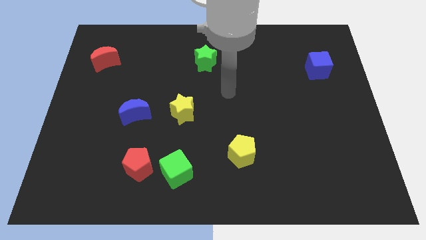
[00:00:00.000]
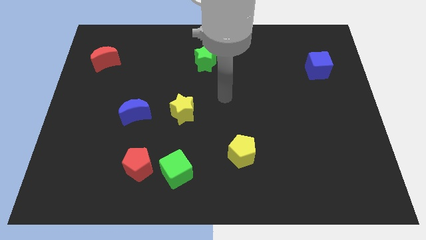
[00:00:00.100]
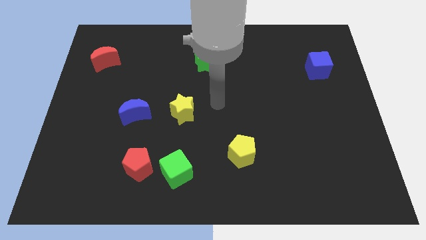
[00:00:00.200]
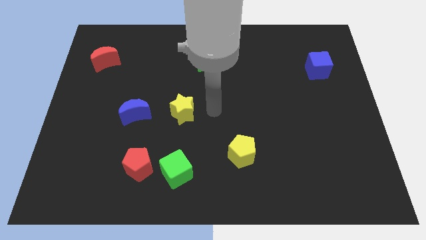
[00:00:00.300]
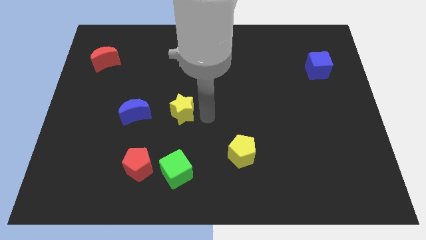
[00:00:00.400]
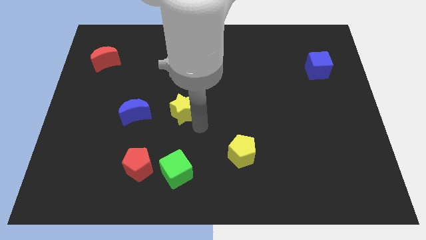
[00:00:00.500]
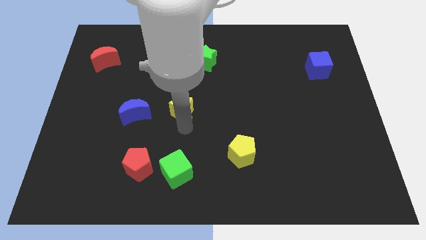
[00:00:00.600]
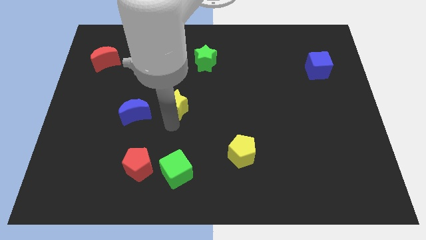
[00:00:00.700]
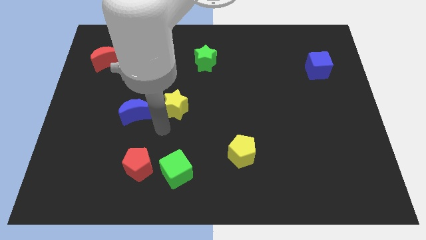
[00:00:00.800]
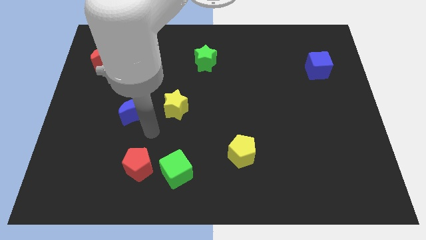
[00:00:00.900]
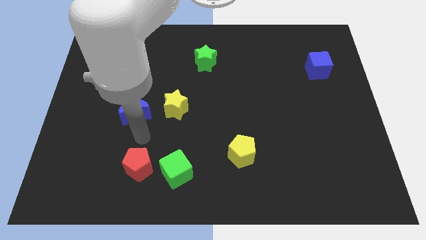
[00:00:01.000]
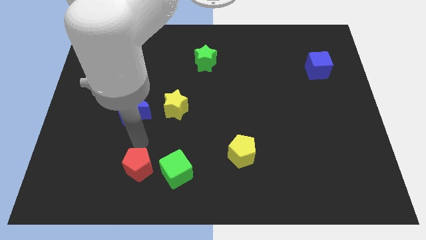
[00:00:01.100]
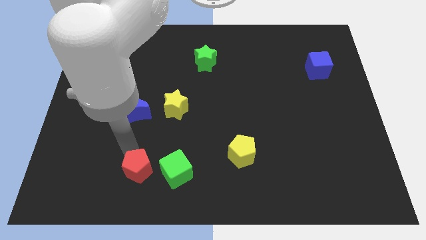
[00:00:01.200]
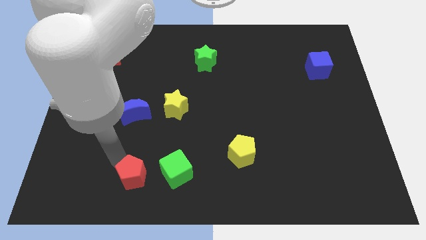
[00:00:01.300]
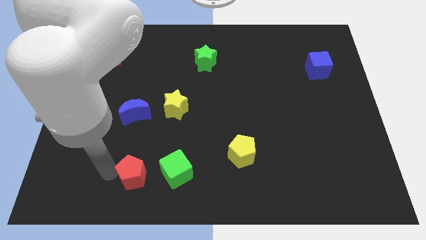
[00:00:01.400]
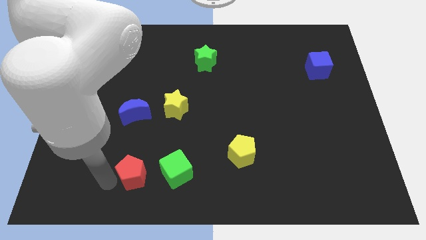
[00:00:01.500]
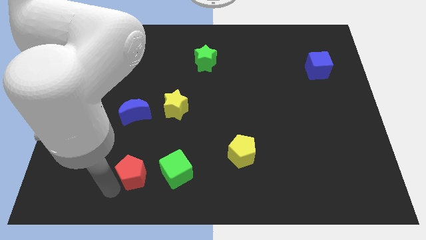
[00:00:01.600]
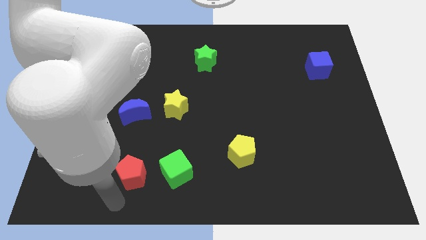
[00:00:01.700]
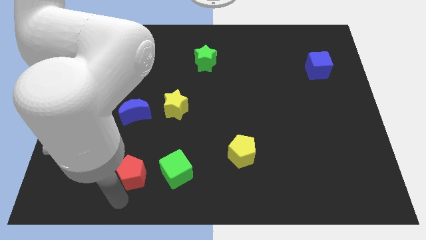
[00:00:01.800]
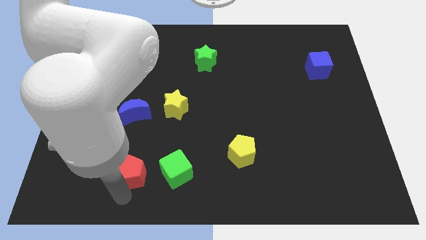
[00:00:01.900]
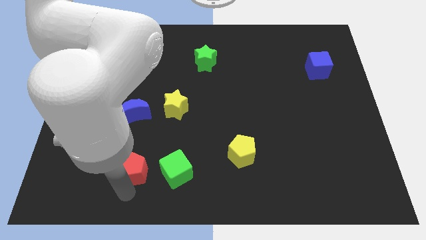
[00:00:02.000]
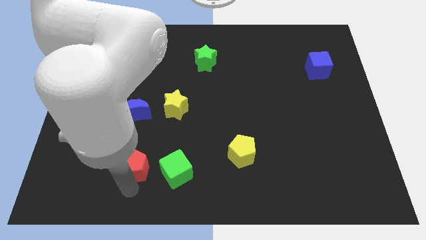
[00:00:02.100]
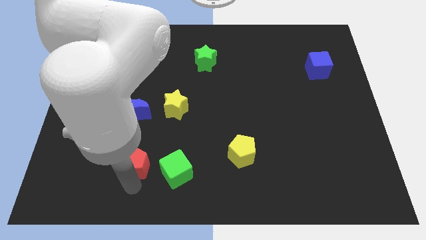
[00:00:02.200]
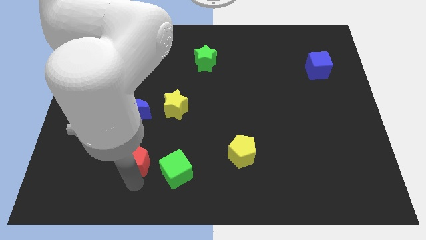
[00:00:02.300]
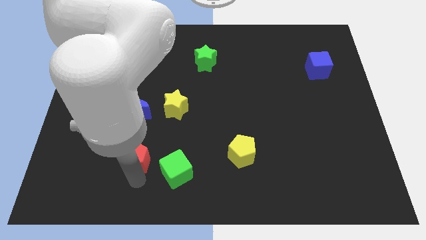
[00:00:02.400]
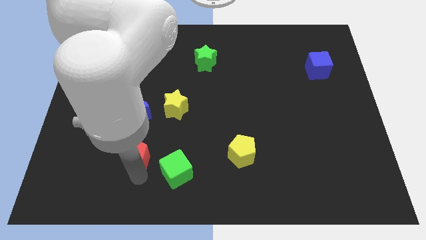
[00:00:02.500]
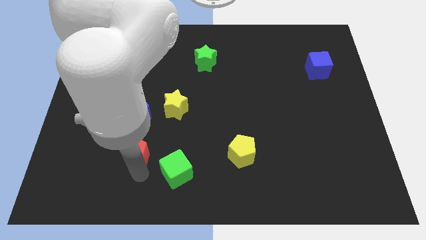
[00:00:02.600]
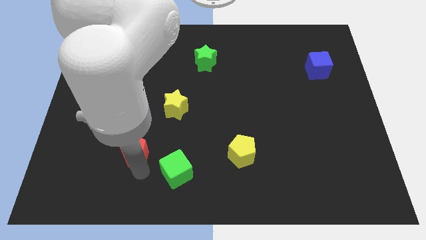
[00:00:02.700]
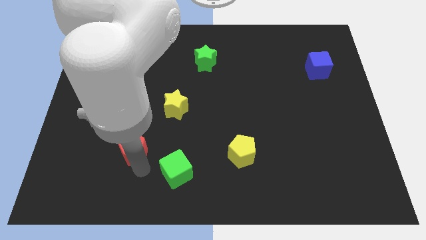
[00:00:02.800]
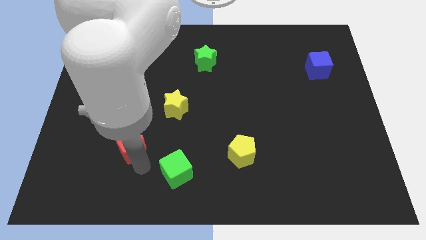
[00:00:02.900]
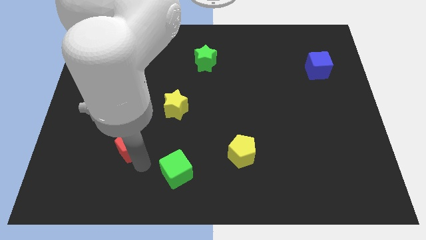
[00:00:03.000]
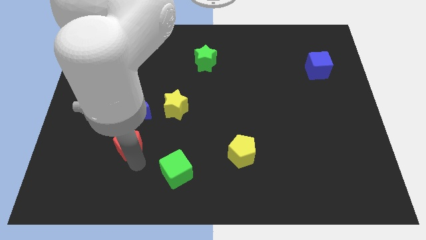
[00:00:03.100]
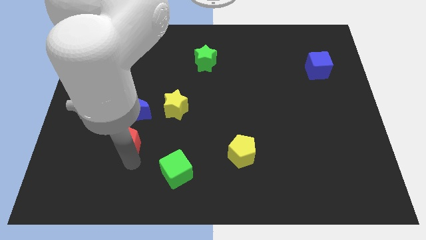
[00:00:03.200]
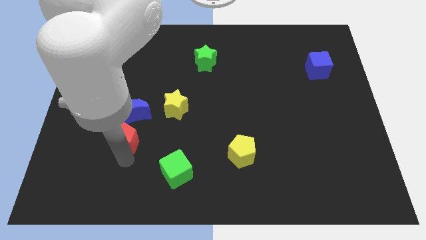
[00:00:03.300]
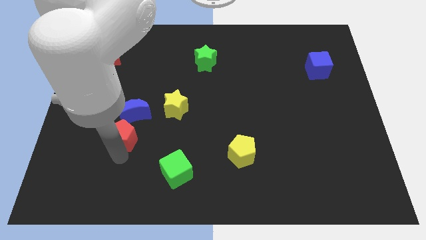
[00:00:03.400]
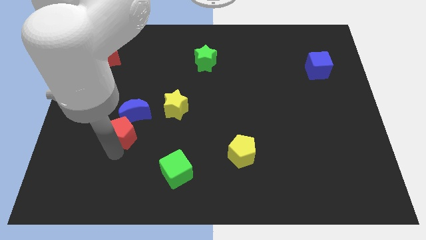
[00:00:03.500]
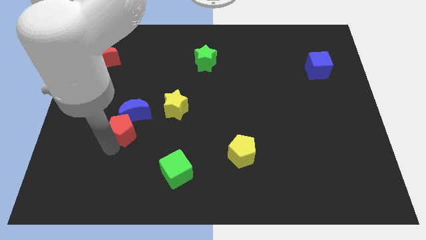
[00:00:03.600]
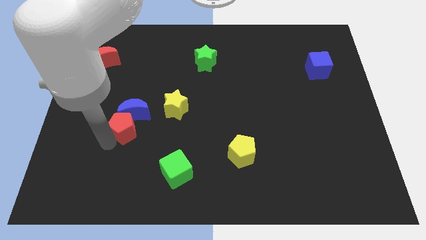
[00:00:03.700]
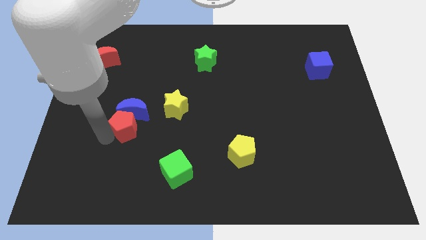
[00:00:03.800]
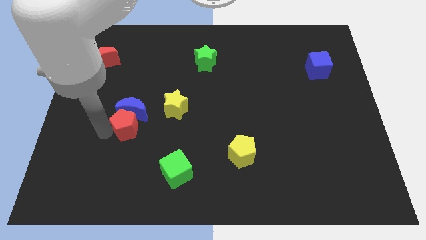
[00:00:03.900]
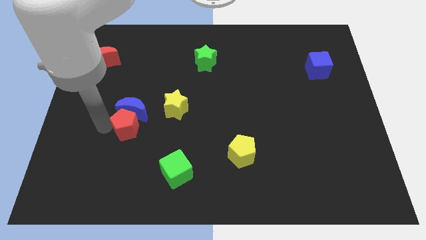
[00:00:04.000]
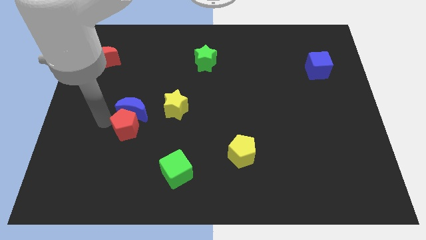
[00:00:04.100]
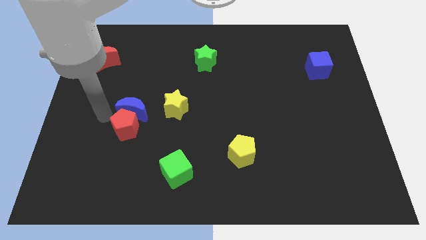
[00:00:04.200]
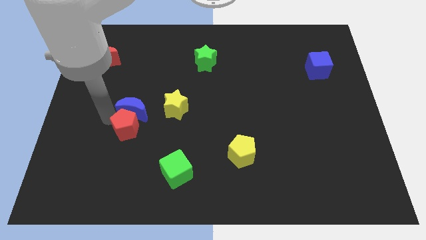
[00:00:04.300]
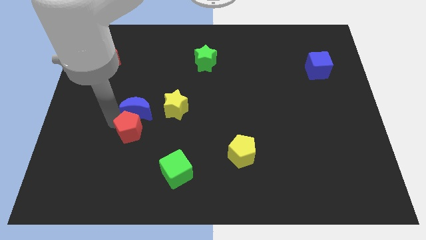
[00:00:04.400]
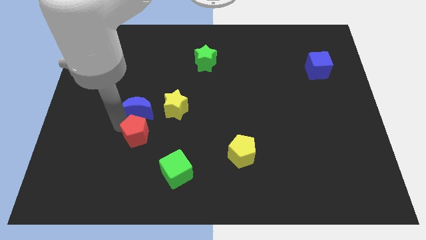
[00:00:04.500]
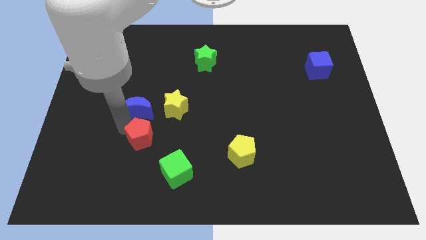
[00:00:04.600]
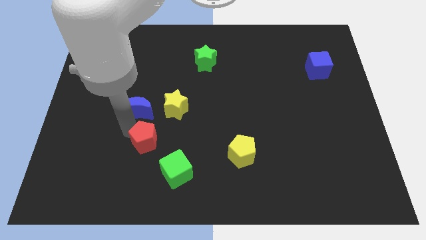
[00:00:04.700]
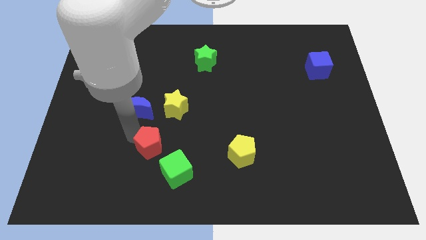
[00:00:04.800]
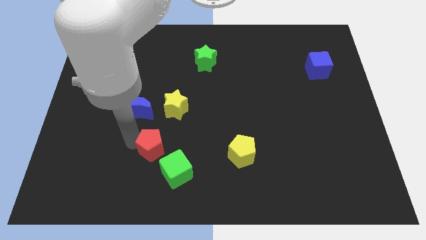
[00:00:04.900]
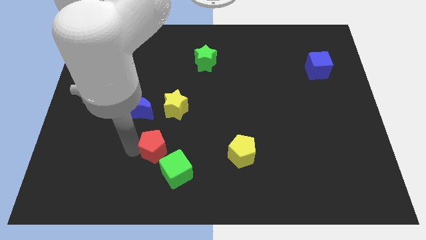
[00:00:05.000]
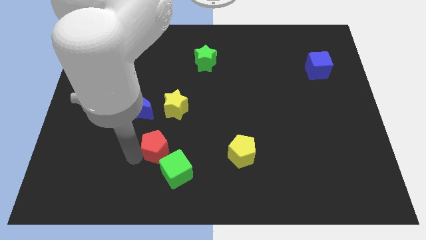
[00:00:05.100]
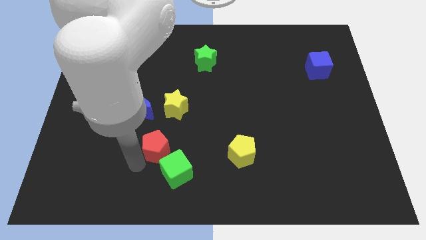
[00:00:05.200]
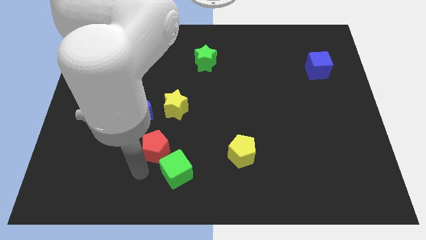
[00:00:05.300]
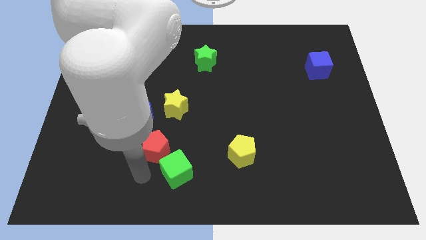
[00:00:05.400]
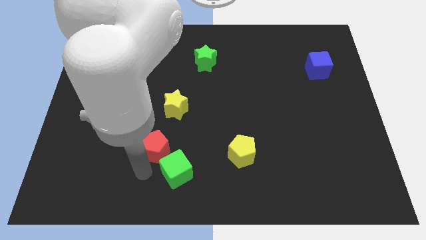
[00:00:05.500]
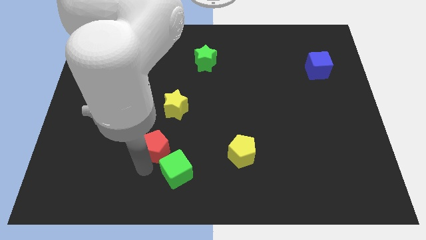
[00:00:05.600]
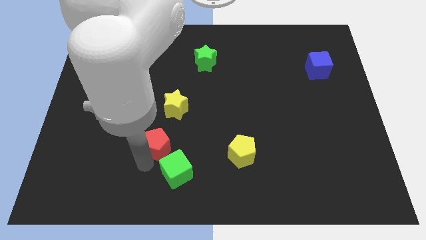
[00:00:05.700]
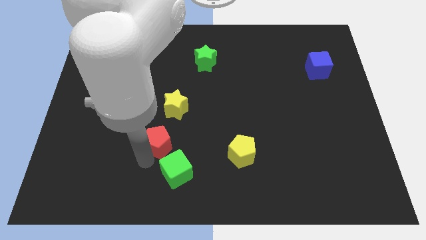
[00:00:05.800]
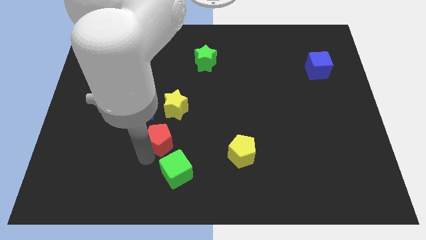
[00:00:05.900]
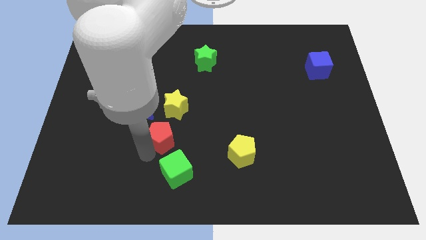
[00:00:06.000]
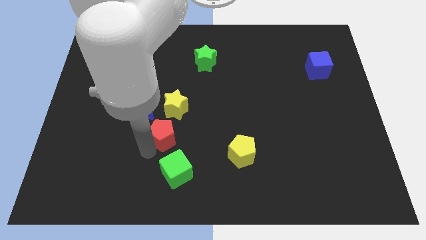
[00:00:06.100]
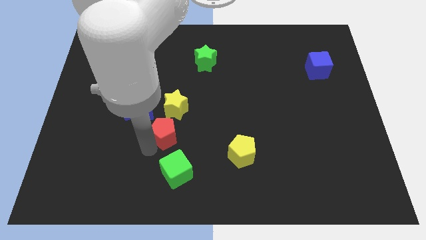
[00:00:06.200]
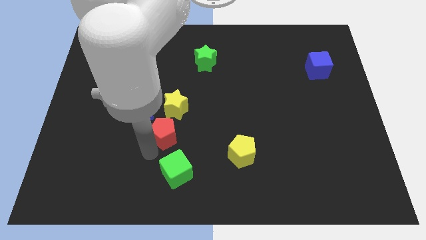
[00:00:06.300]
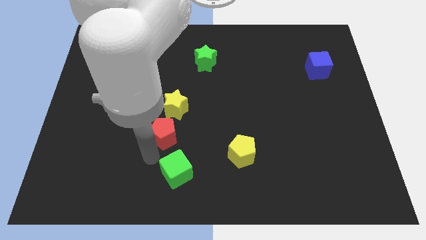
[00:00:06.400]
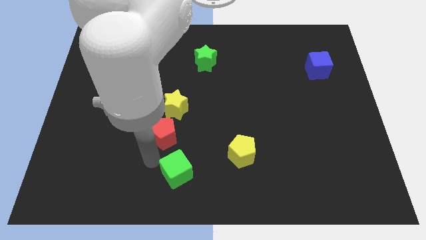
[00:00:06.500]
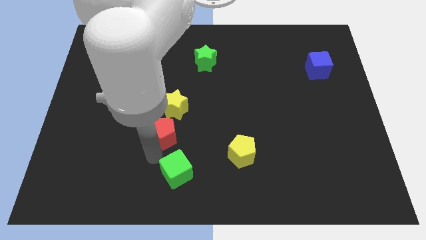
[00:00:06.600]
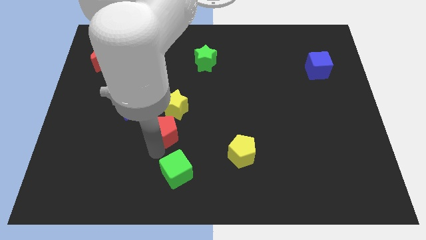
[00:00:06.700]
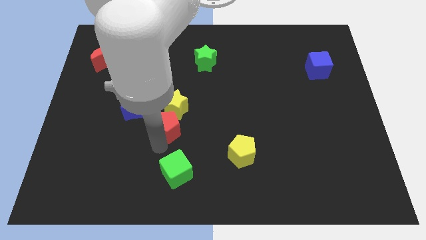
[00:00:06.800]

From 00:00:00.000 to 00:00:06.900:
slide the red pentagon to the yellow star

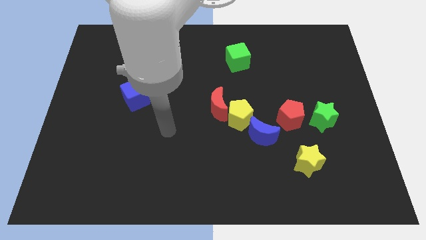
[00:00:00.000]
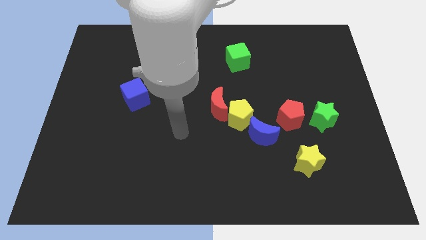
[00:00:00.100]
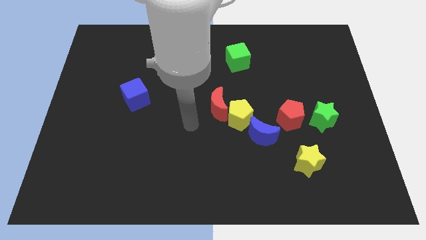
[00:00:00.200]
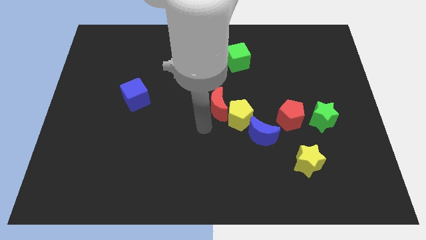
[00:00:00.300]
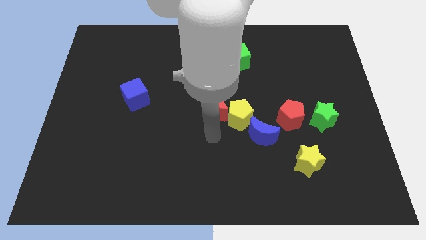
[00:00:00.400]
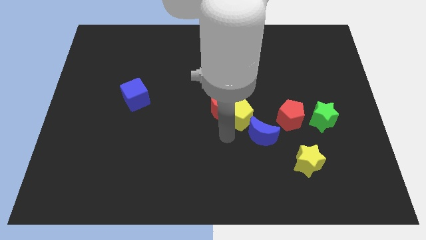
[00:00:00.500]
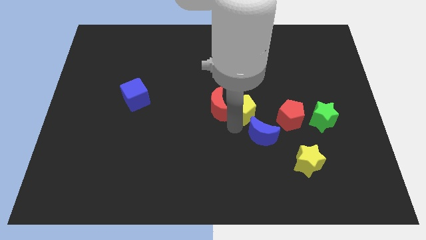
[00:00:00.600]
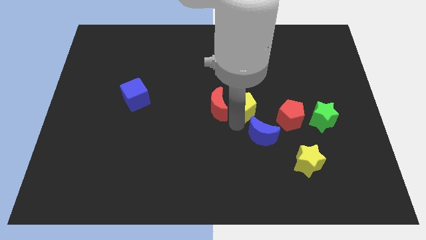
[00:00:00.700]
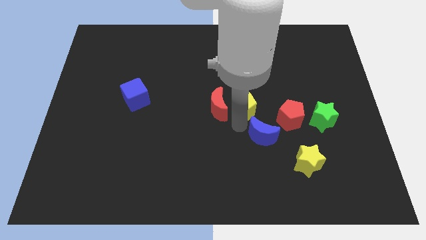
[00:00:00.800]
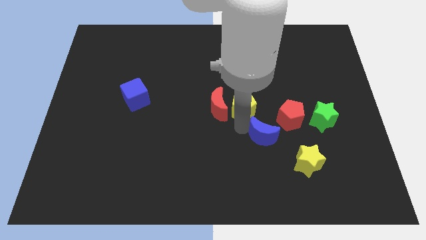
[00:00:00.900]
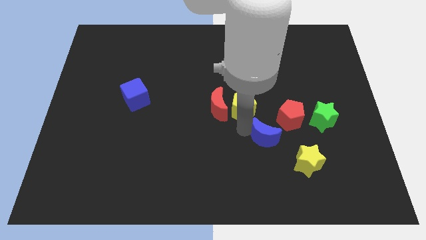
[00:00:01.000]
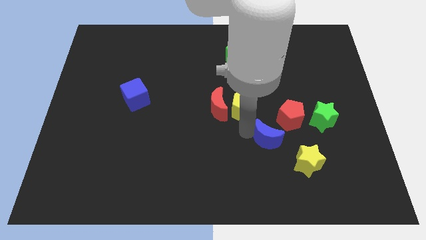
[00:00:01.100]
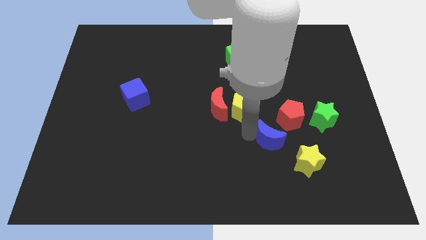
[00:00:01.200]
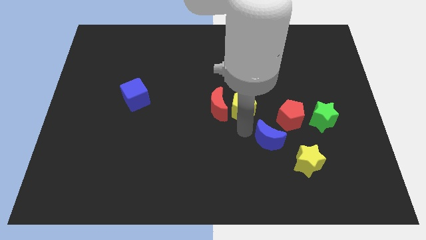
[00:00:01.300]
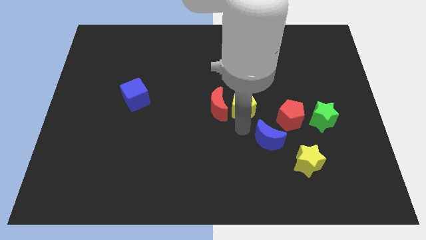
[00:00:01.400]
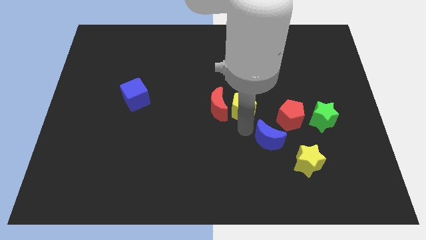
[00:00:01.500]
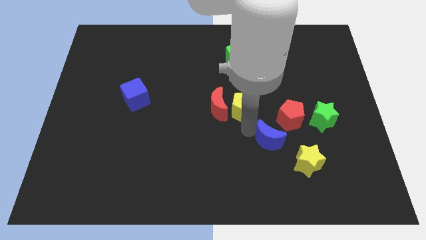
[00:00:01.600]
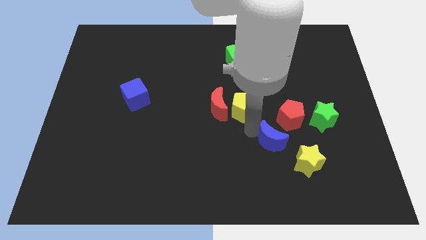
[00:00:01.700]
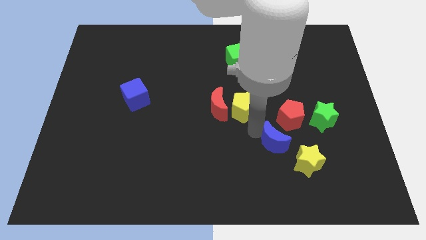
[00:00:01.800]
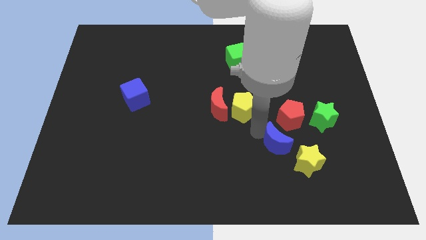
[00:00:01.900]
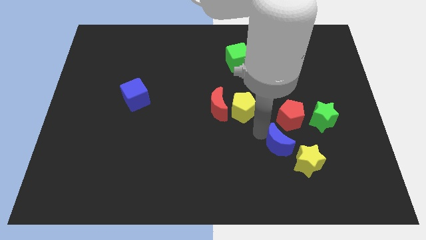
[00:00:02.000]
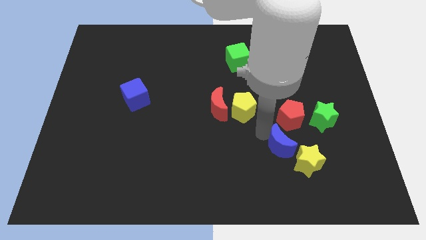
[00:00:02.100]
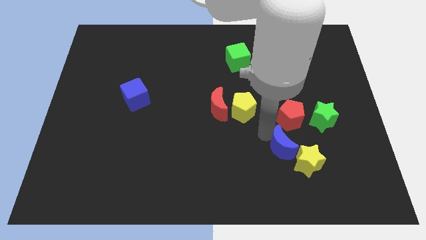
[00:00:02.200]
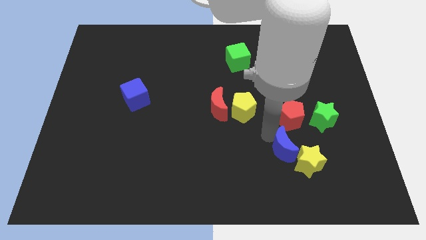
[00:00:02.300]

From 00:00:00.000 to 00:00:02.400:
move the blue moon towards the yellow star
